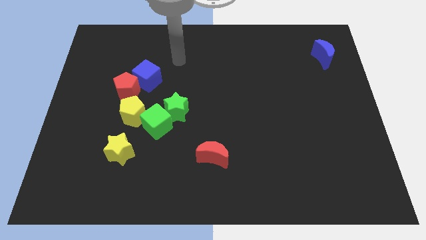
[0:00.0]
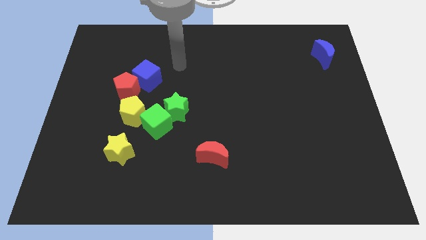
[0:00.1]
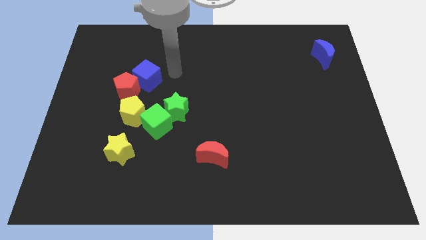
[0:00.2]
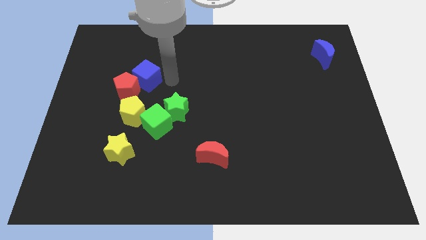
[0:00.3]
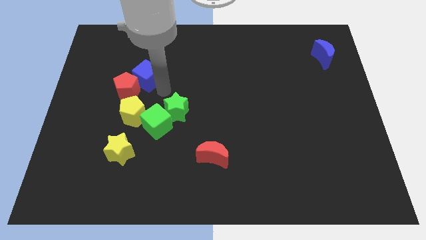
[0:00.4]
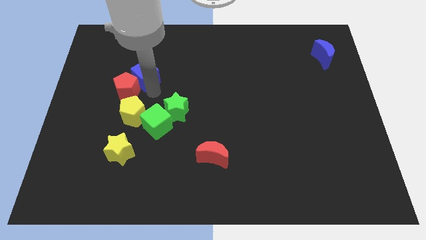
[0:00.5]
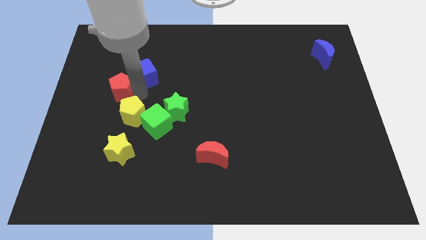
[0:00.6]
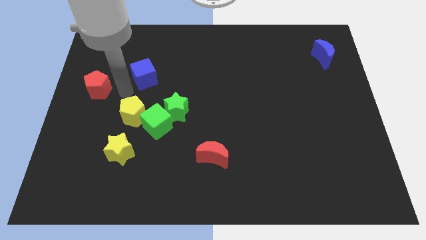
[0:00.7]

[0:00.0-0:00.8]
separate the blue cube from the red pentagon

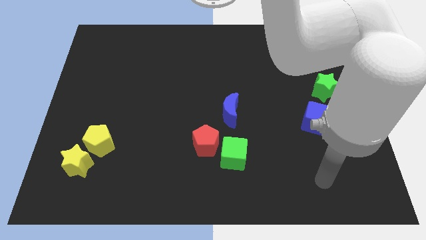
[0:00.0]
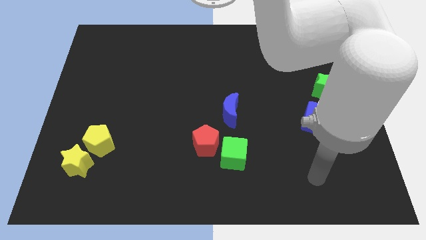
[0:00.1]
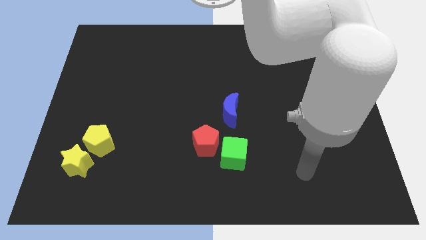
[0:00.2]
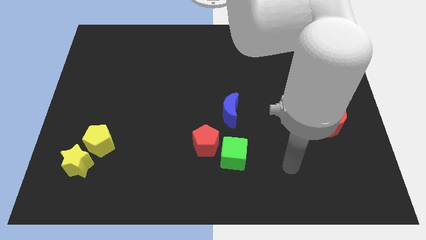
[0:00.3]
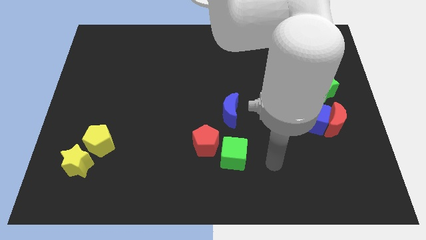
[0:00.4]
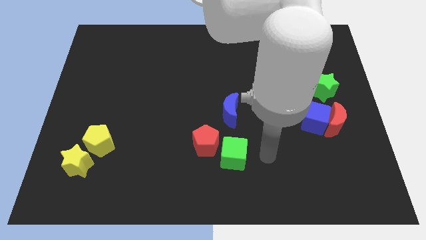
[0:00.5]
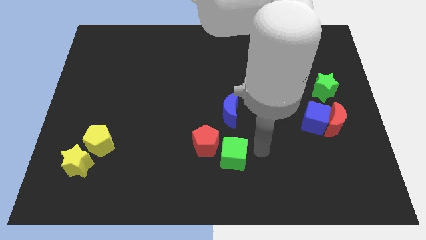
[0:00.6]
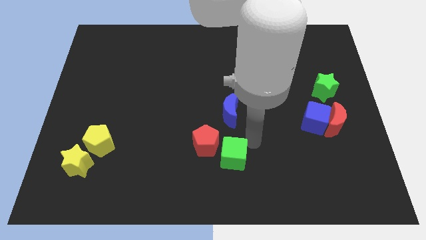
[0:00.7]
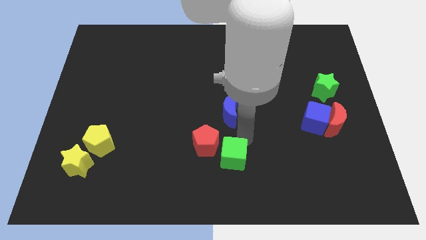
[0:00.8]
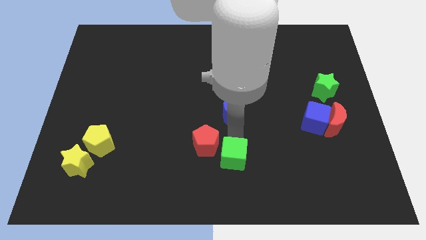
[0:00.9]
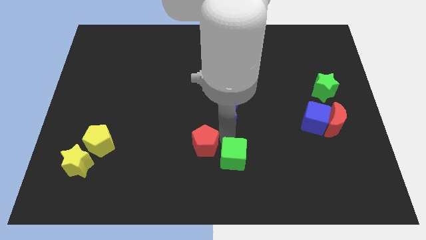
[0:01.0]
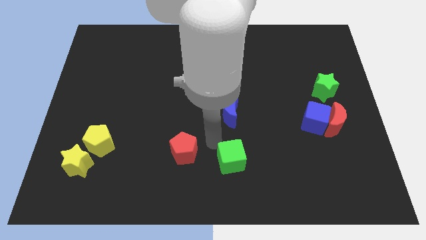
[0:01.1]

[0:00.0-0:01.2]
move the green cube away from the red pentagon

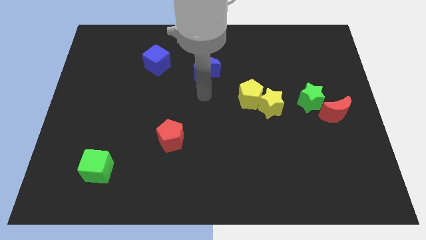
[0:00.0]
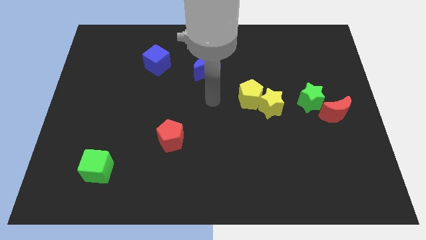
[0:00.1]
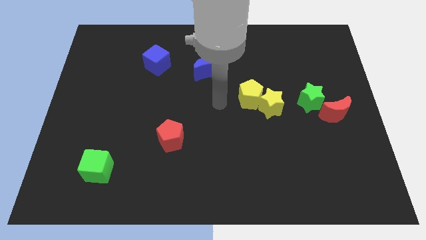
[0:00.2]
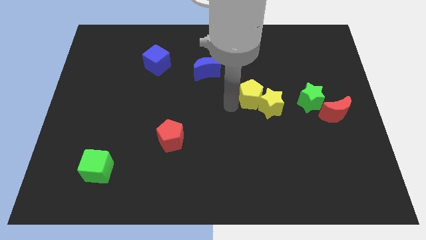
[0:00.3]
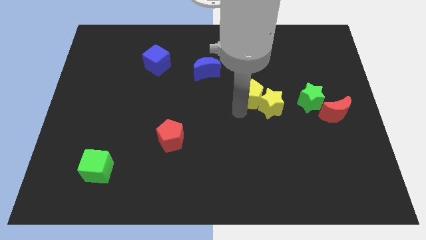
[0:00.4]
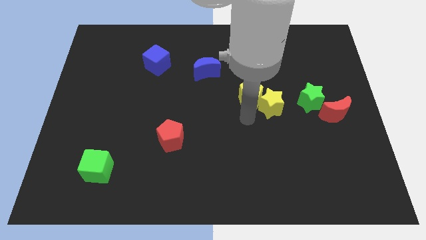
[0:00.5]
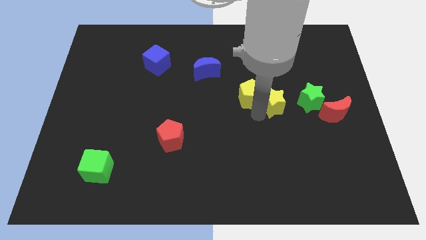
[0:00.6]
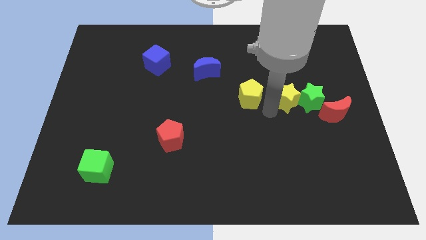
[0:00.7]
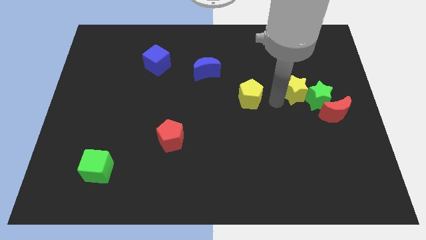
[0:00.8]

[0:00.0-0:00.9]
separate the yellow pentagon from the yellow star

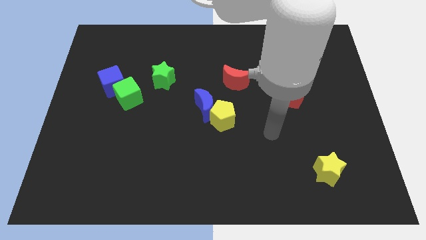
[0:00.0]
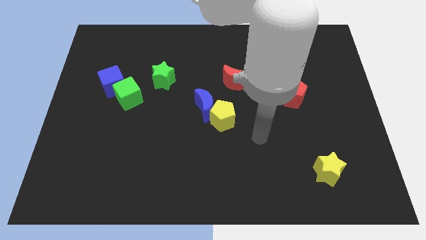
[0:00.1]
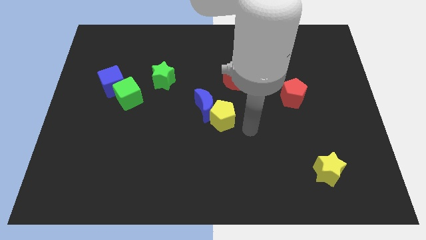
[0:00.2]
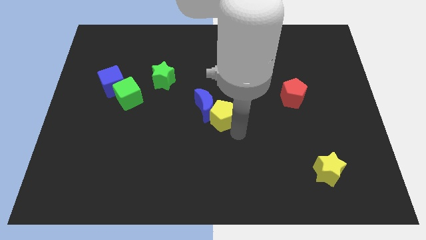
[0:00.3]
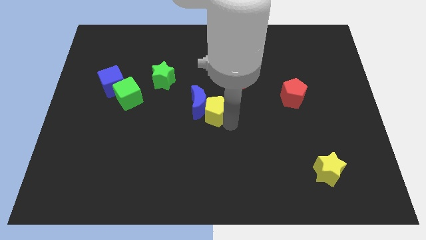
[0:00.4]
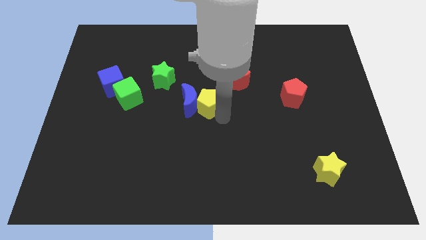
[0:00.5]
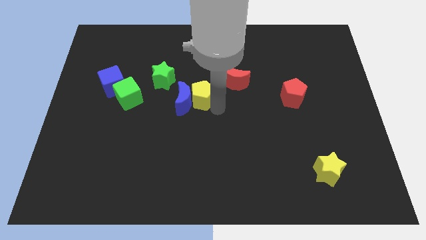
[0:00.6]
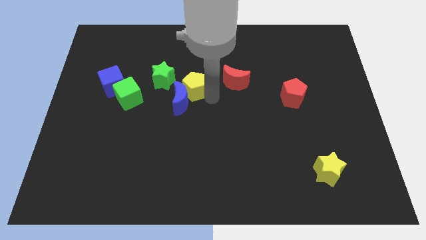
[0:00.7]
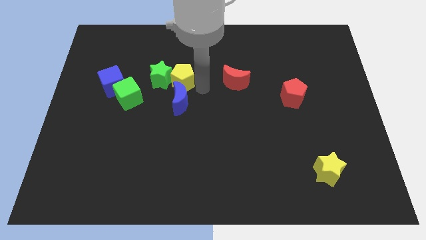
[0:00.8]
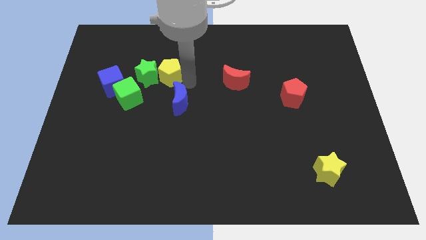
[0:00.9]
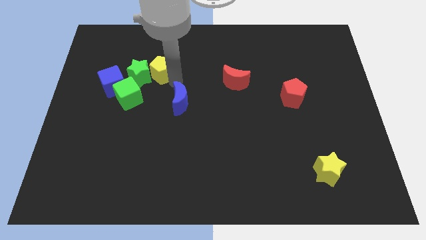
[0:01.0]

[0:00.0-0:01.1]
separate the blue moon from the yellow pentagon

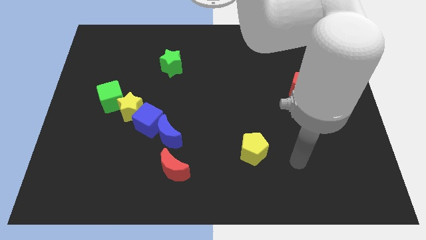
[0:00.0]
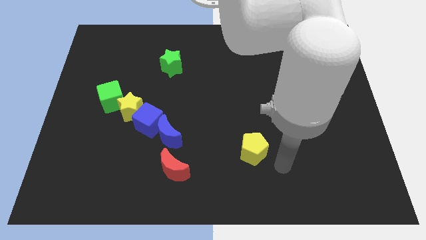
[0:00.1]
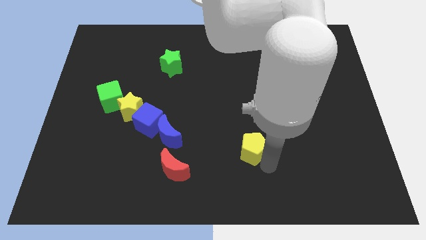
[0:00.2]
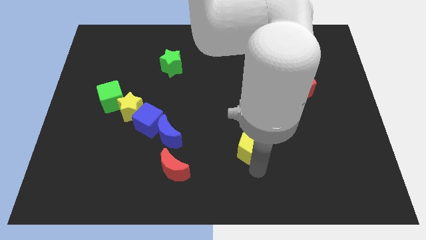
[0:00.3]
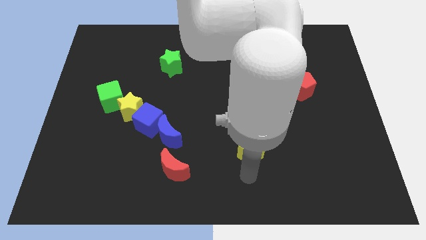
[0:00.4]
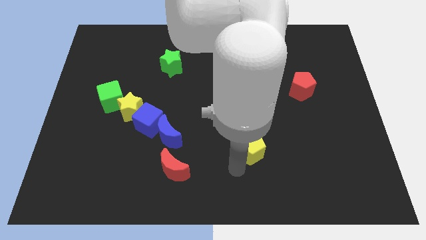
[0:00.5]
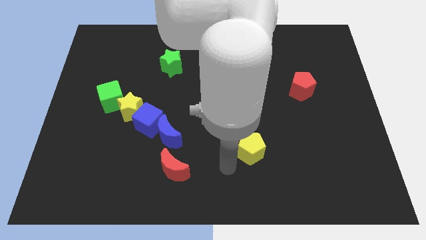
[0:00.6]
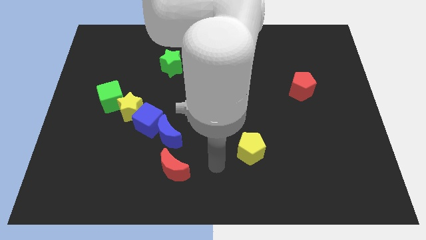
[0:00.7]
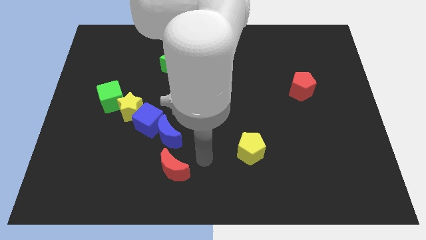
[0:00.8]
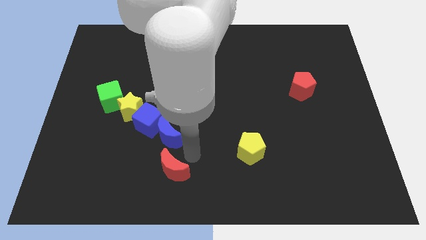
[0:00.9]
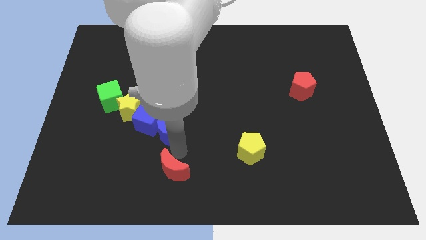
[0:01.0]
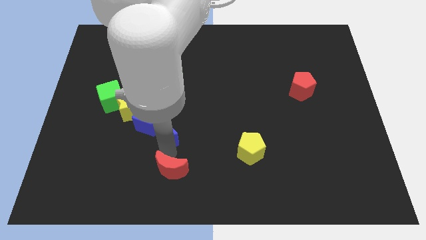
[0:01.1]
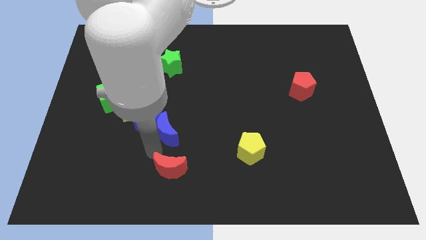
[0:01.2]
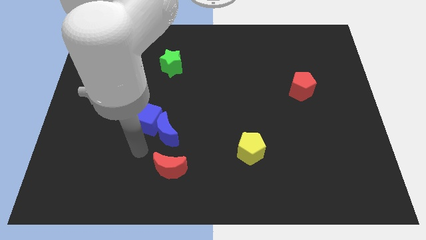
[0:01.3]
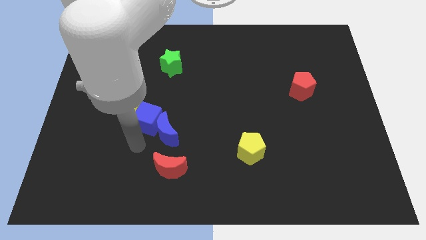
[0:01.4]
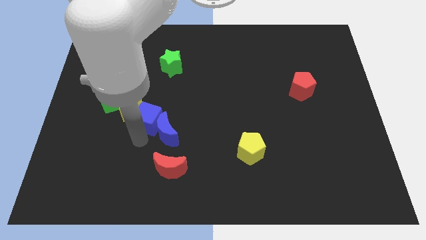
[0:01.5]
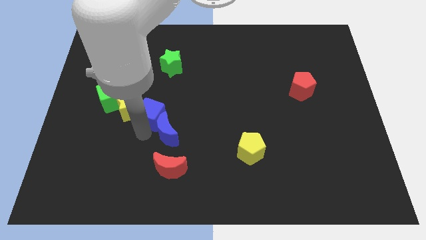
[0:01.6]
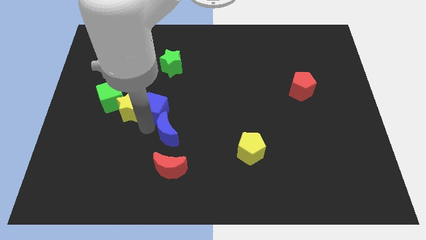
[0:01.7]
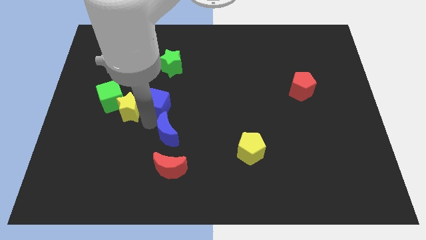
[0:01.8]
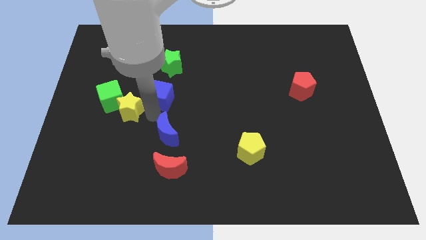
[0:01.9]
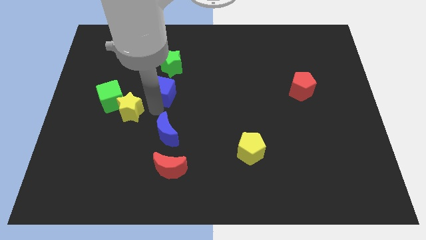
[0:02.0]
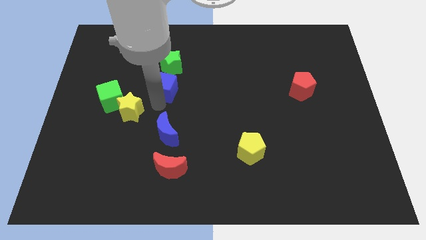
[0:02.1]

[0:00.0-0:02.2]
pull the blue cube apart from the yellow star and blue moon

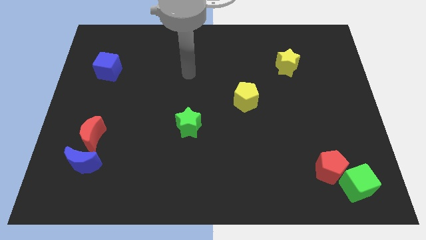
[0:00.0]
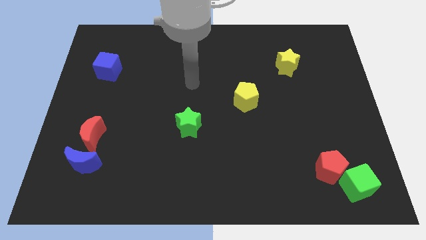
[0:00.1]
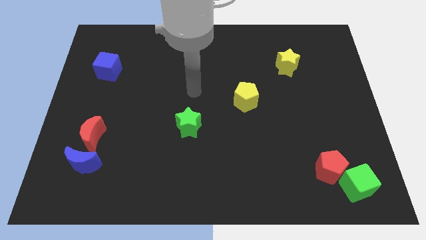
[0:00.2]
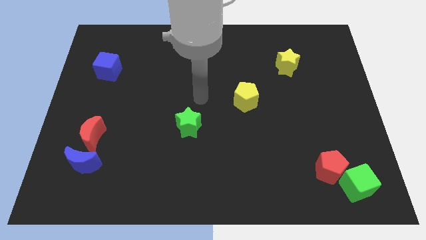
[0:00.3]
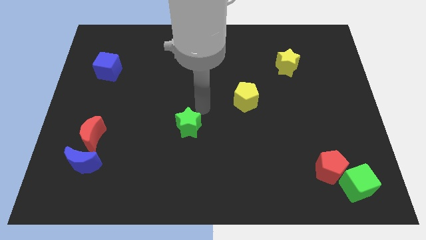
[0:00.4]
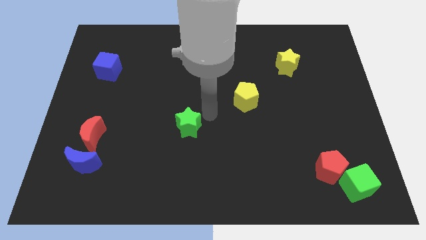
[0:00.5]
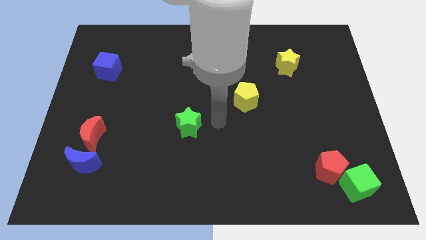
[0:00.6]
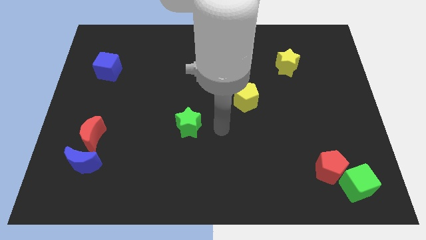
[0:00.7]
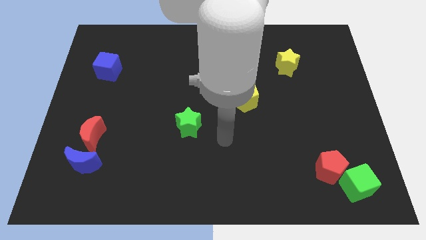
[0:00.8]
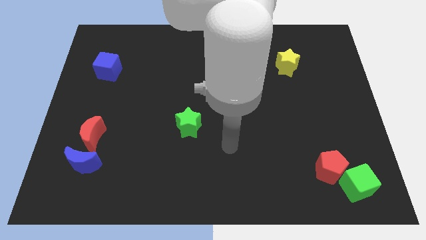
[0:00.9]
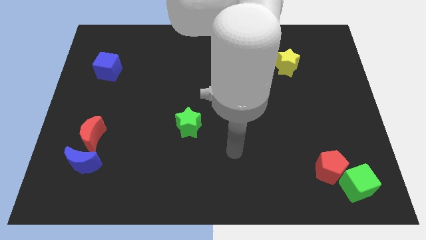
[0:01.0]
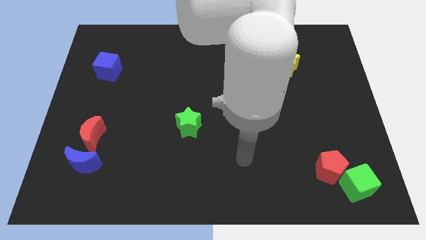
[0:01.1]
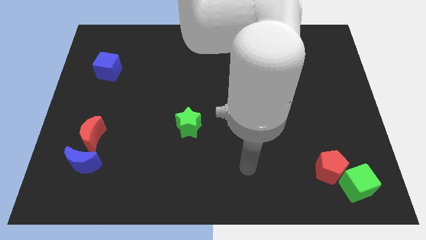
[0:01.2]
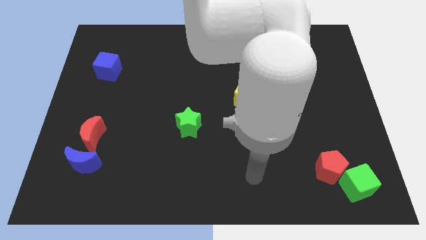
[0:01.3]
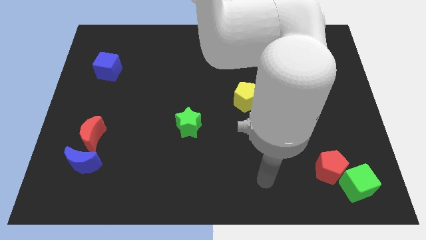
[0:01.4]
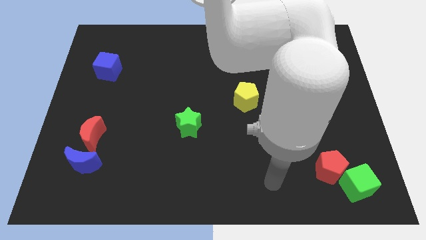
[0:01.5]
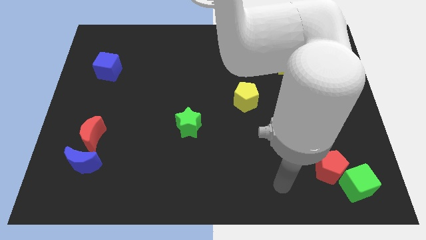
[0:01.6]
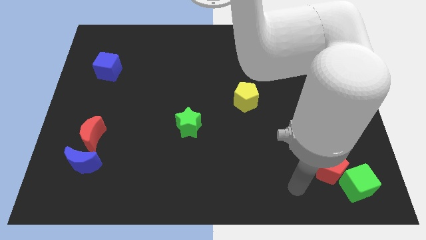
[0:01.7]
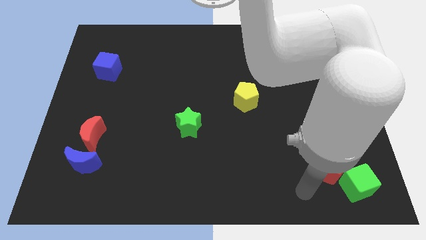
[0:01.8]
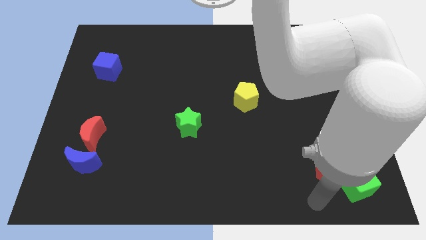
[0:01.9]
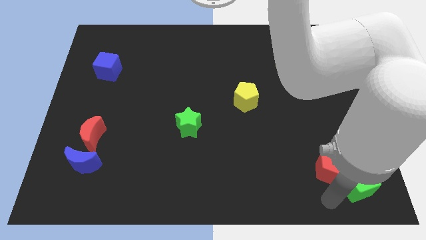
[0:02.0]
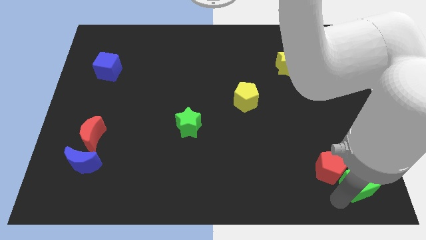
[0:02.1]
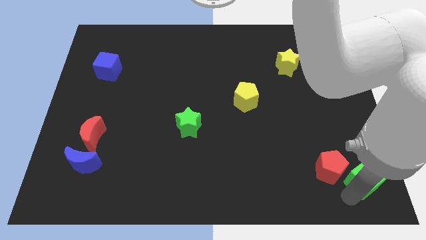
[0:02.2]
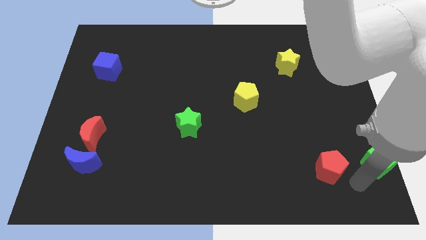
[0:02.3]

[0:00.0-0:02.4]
separate the red pentagon from the green cube

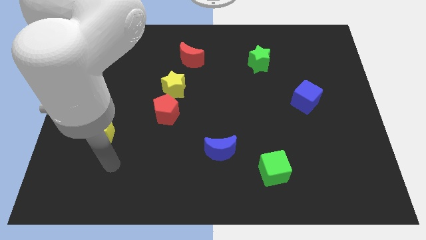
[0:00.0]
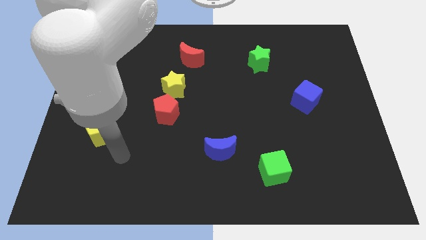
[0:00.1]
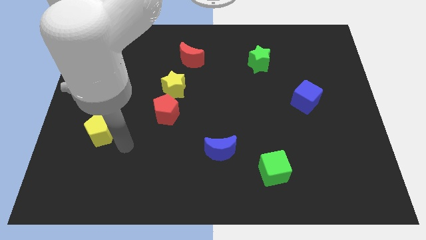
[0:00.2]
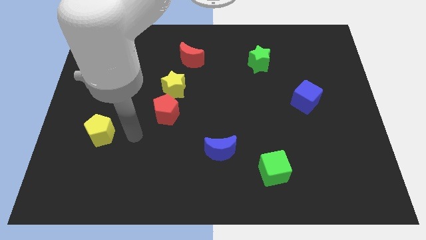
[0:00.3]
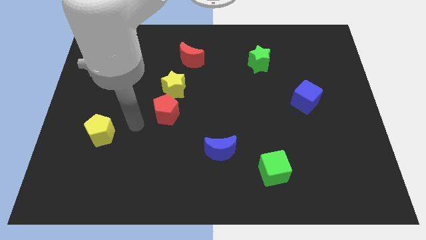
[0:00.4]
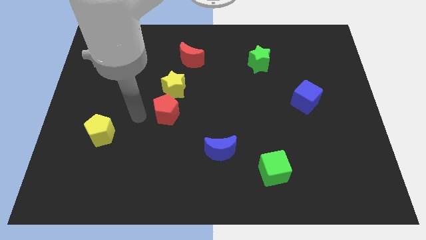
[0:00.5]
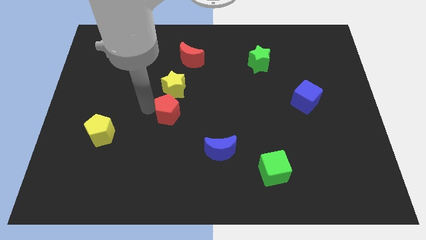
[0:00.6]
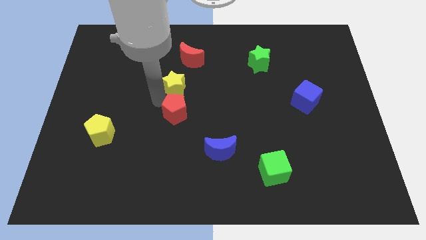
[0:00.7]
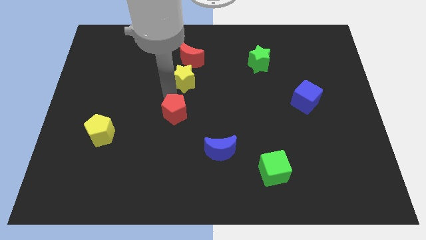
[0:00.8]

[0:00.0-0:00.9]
pull the red pentagon apart from the yellow star
